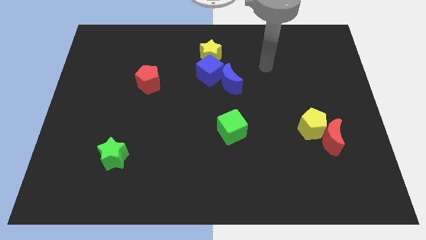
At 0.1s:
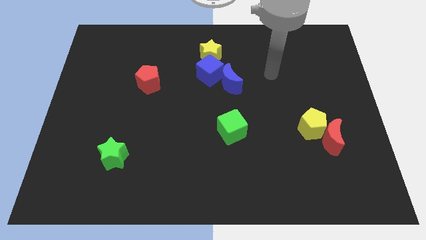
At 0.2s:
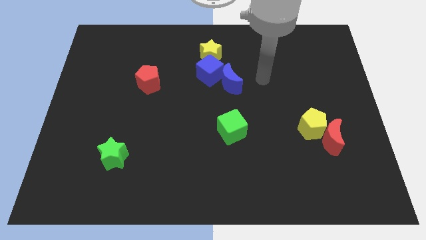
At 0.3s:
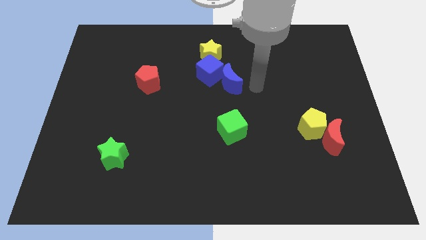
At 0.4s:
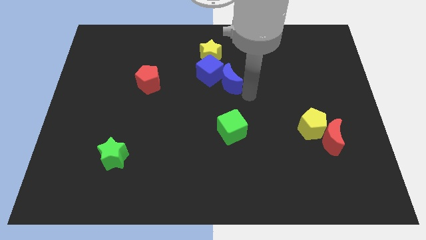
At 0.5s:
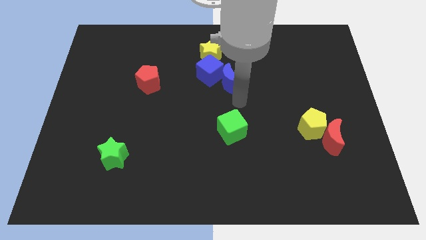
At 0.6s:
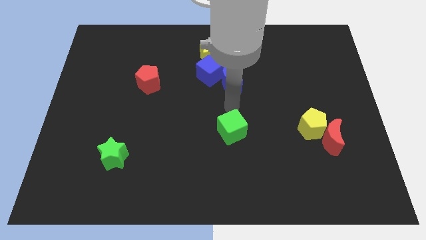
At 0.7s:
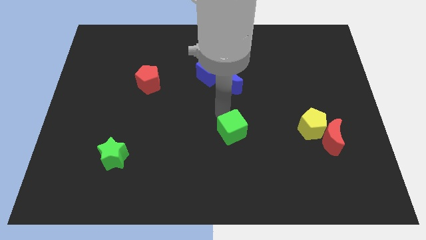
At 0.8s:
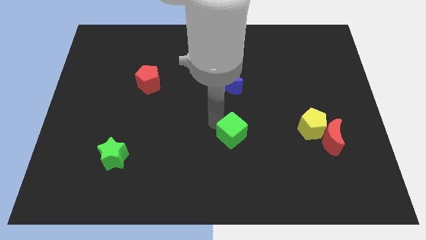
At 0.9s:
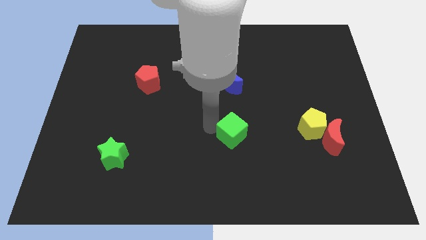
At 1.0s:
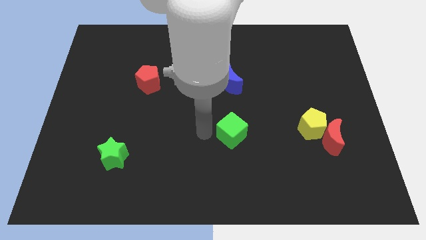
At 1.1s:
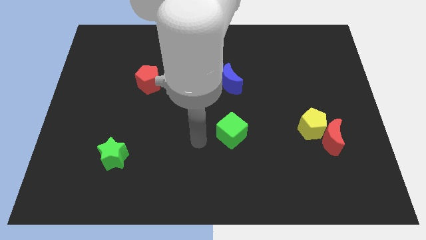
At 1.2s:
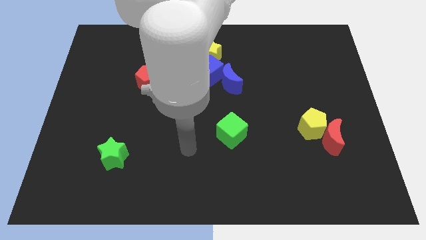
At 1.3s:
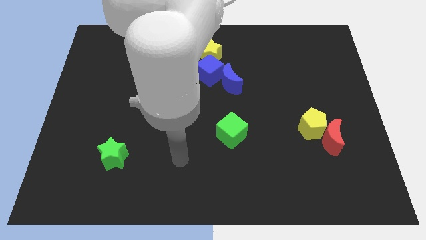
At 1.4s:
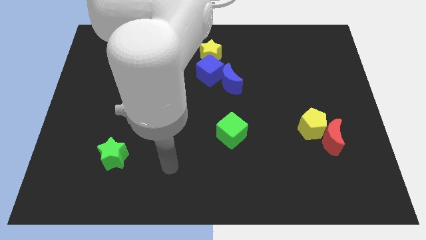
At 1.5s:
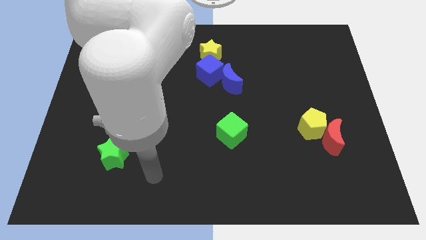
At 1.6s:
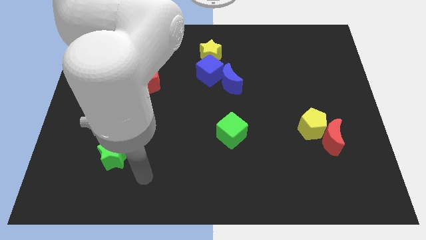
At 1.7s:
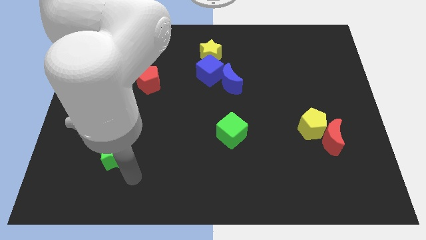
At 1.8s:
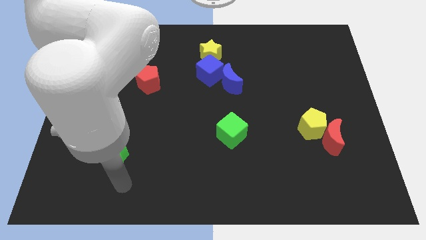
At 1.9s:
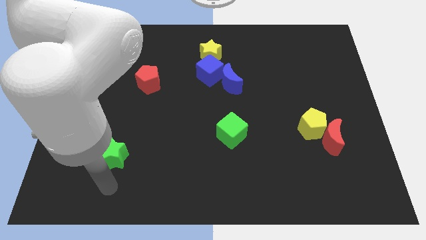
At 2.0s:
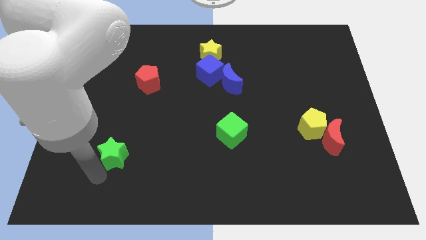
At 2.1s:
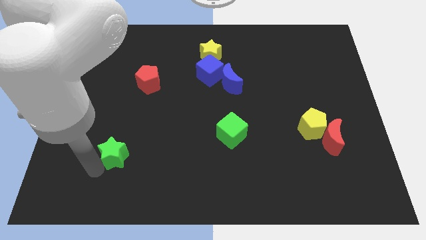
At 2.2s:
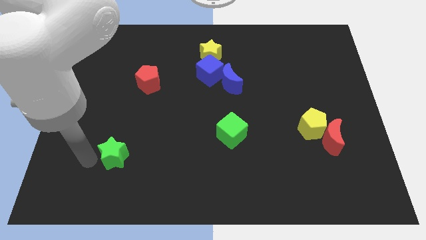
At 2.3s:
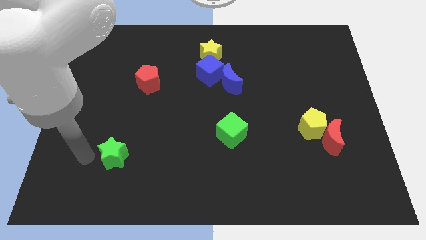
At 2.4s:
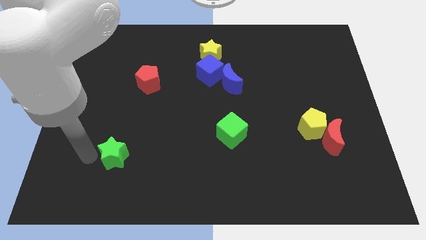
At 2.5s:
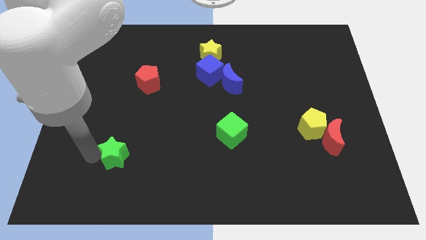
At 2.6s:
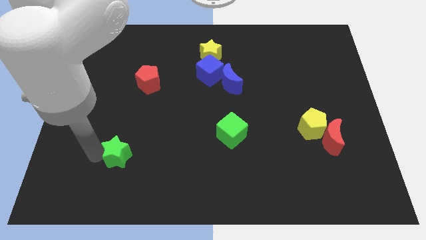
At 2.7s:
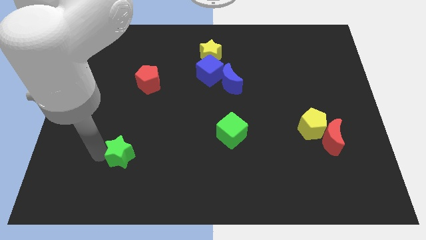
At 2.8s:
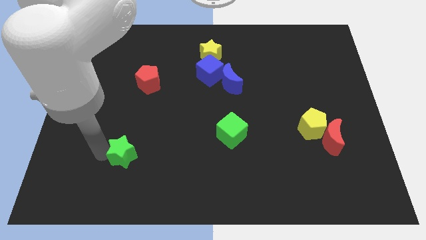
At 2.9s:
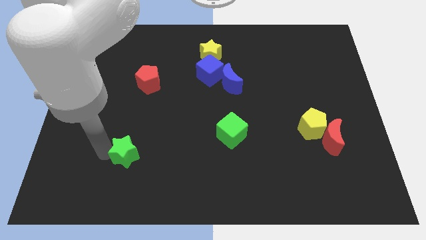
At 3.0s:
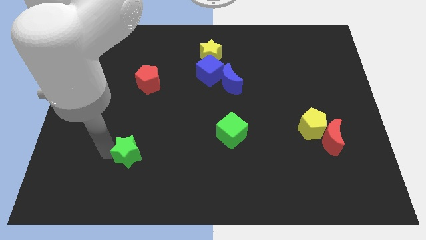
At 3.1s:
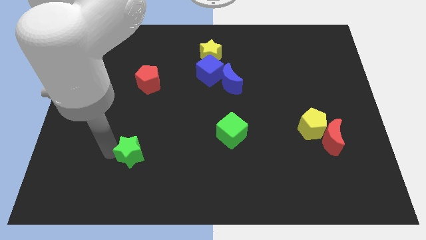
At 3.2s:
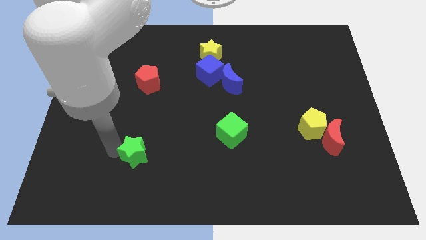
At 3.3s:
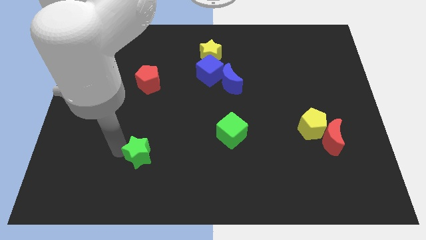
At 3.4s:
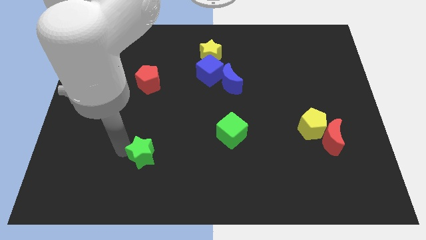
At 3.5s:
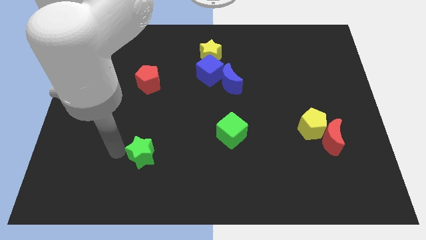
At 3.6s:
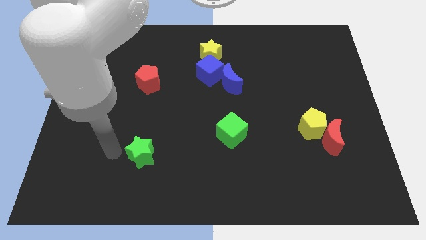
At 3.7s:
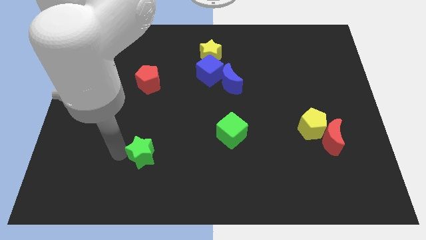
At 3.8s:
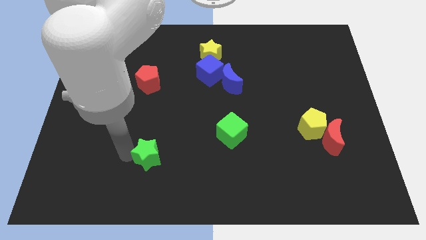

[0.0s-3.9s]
move the green star a bit right

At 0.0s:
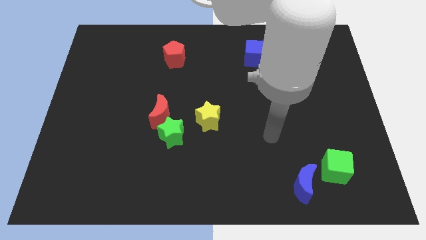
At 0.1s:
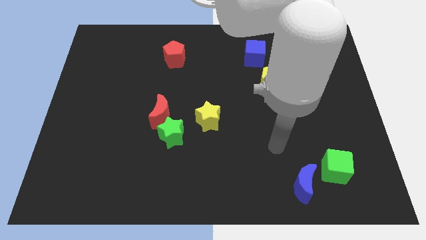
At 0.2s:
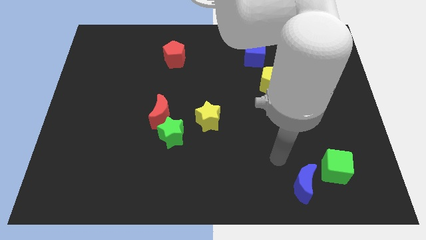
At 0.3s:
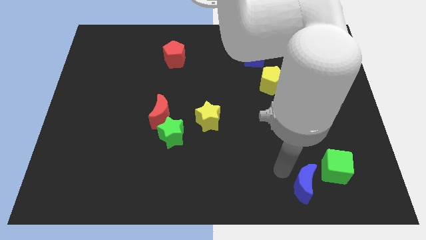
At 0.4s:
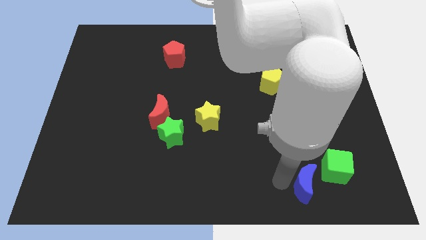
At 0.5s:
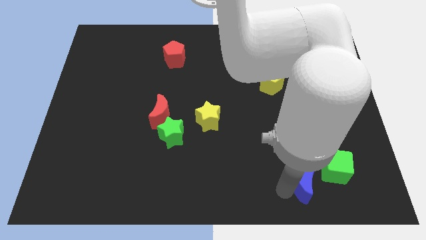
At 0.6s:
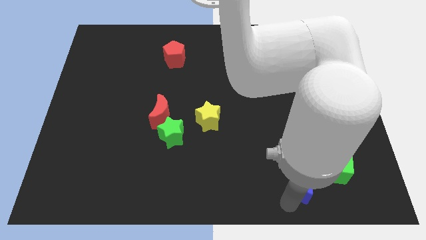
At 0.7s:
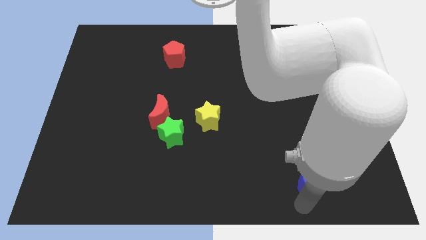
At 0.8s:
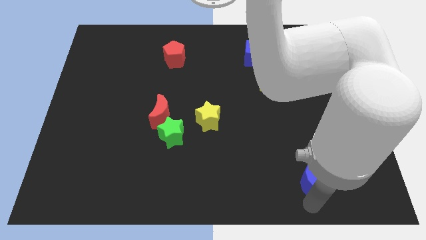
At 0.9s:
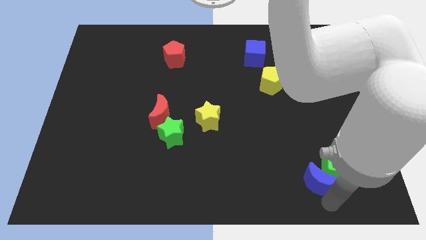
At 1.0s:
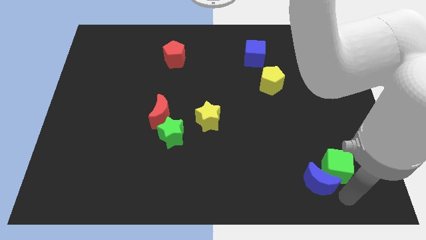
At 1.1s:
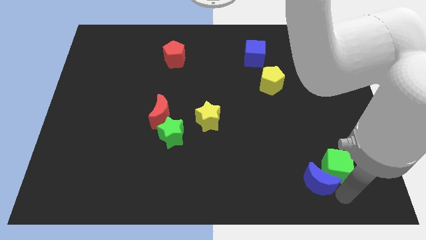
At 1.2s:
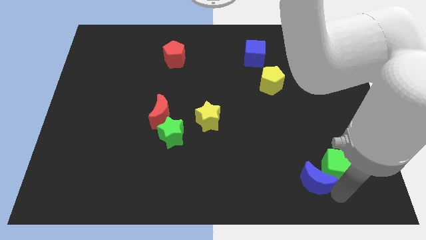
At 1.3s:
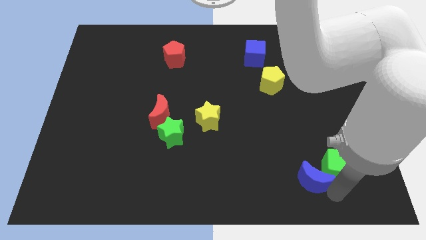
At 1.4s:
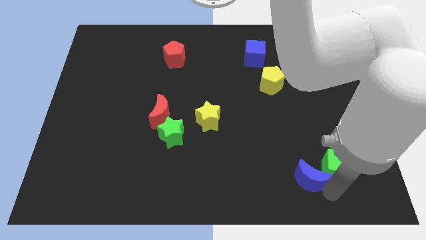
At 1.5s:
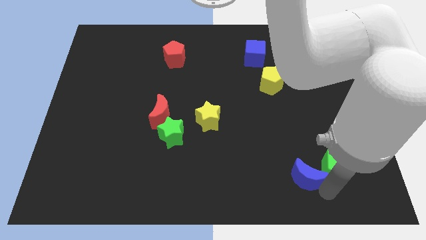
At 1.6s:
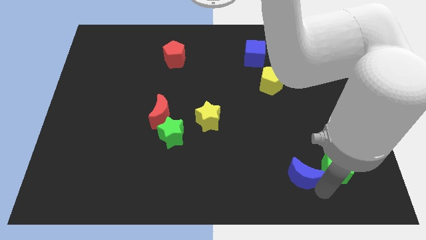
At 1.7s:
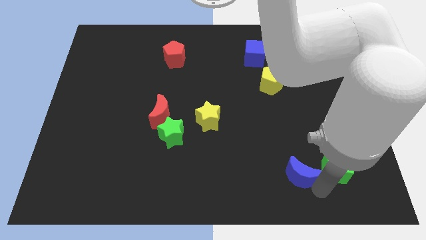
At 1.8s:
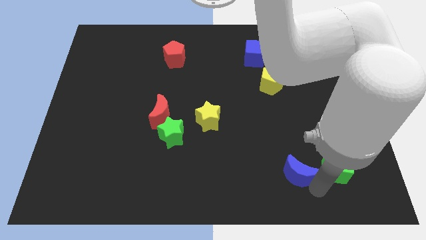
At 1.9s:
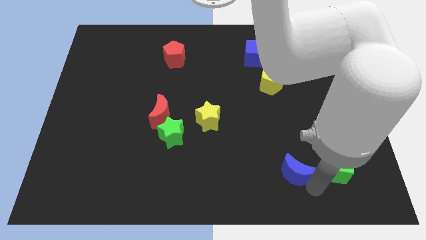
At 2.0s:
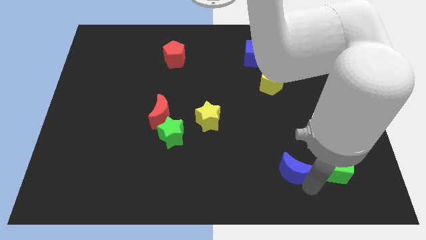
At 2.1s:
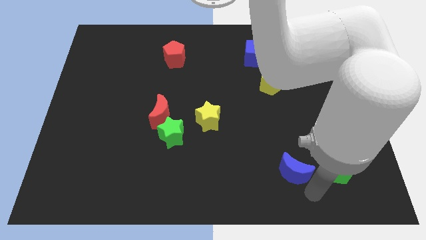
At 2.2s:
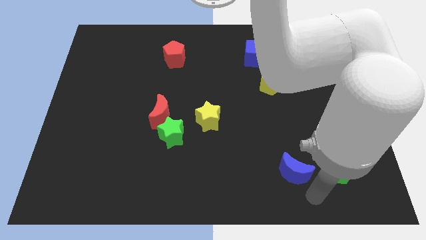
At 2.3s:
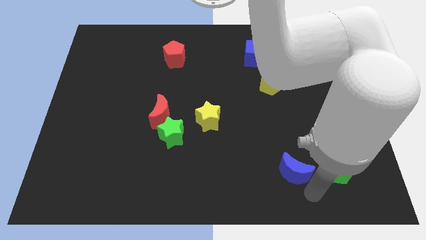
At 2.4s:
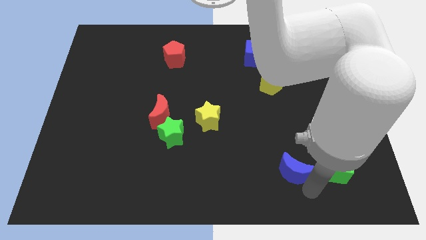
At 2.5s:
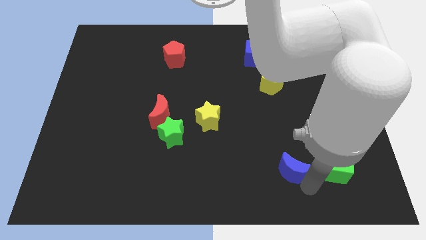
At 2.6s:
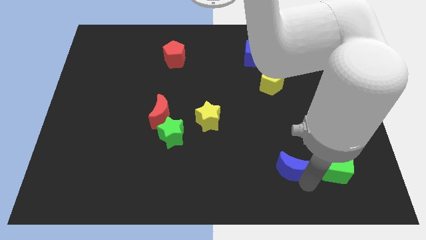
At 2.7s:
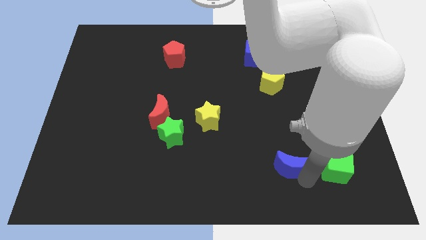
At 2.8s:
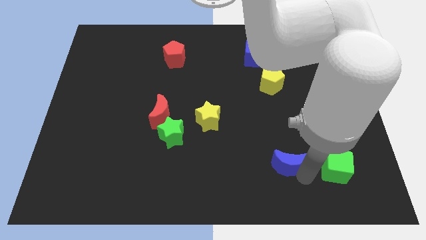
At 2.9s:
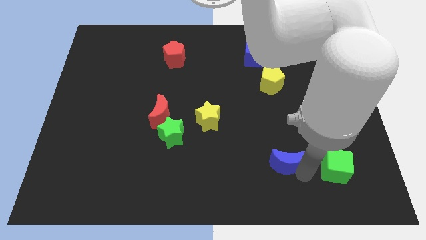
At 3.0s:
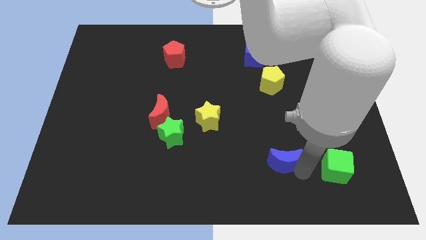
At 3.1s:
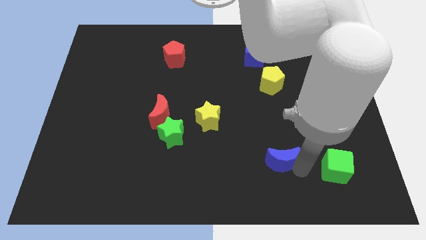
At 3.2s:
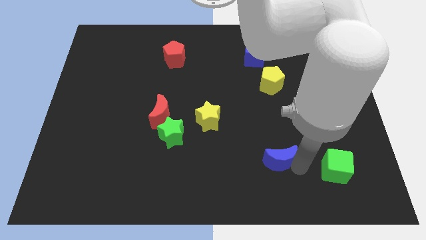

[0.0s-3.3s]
slightly move the blue moon upwards and left

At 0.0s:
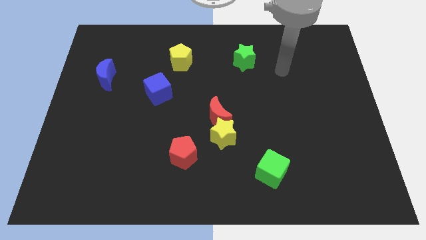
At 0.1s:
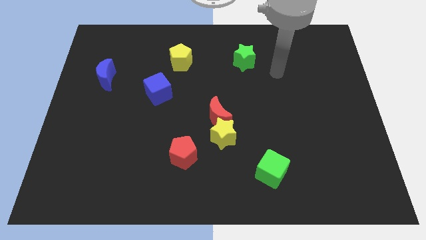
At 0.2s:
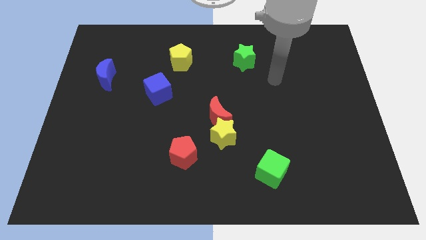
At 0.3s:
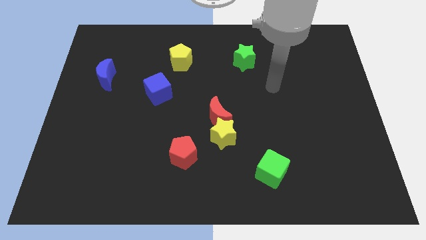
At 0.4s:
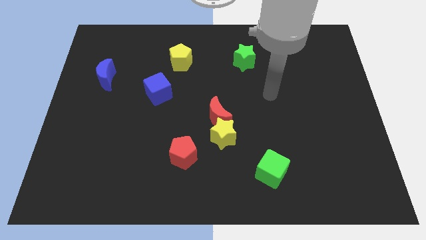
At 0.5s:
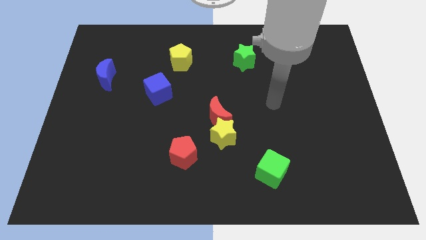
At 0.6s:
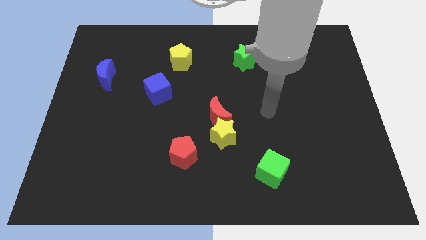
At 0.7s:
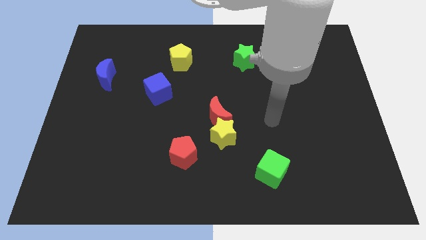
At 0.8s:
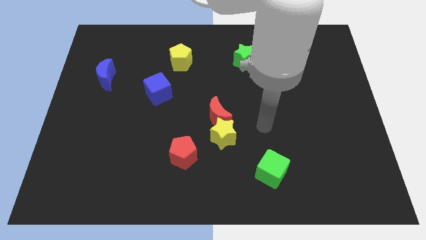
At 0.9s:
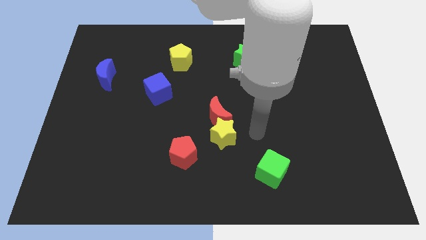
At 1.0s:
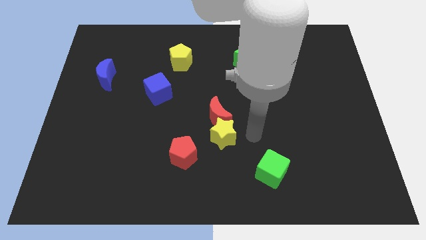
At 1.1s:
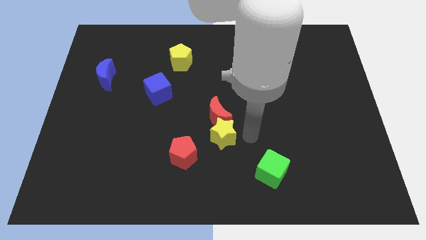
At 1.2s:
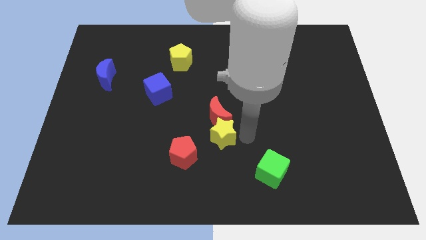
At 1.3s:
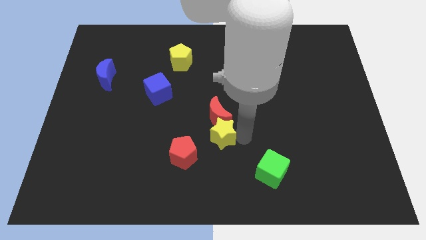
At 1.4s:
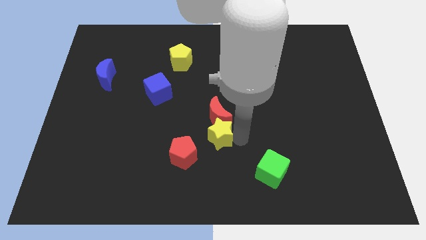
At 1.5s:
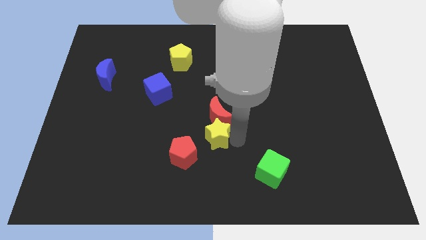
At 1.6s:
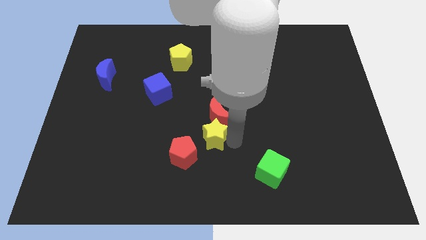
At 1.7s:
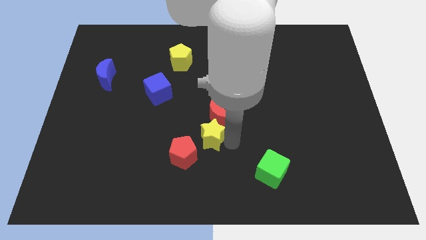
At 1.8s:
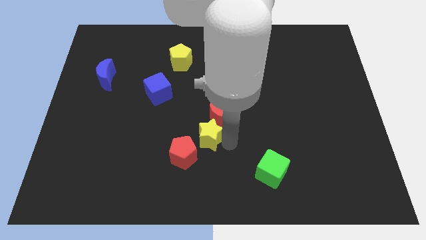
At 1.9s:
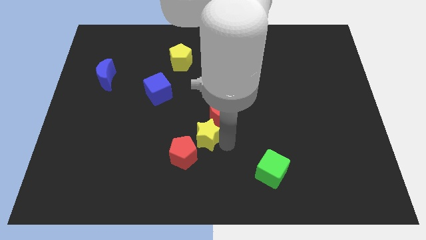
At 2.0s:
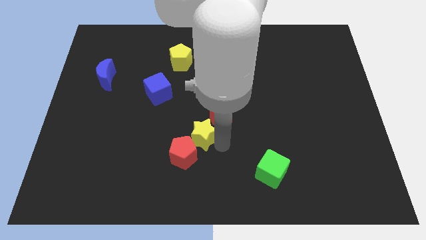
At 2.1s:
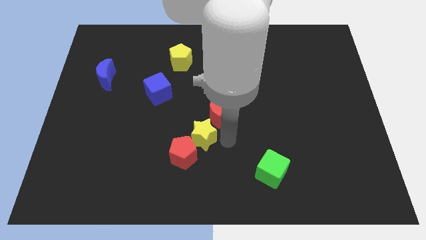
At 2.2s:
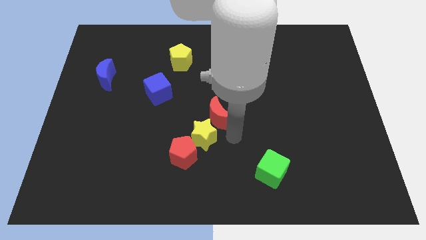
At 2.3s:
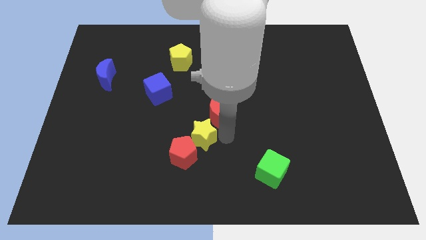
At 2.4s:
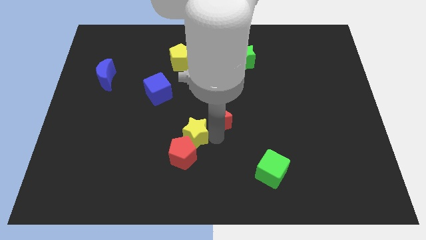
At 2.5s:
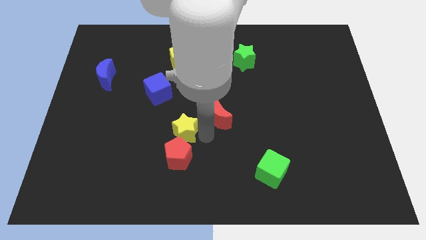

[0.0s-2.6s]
move the yellow star slightly to the left
